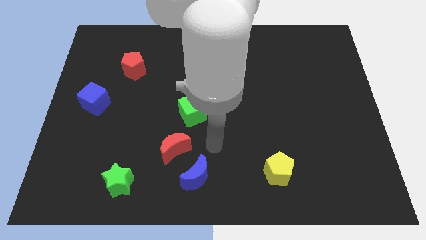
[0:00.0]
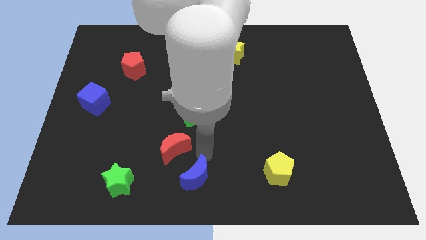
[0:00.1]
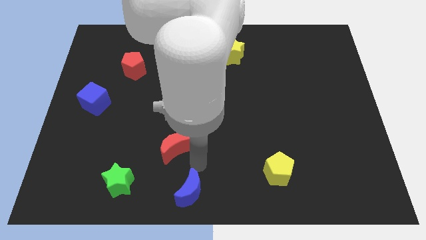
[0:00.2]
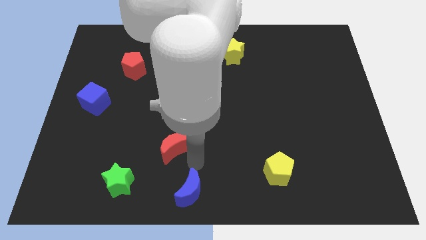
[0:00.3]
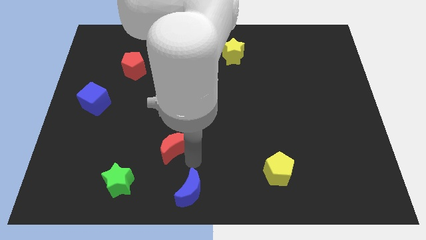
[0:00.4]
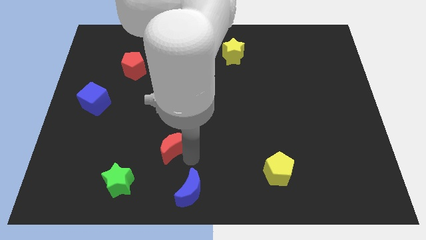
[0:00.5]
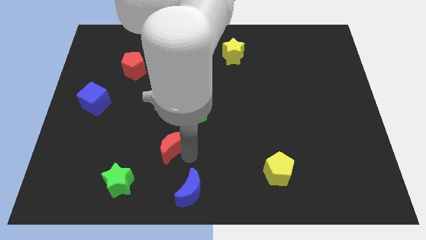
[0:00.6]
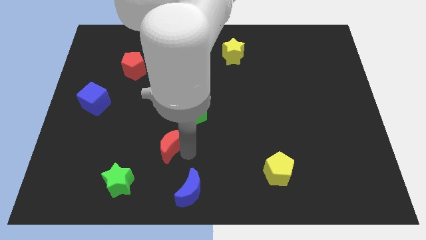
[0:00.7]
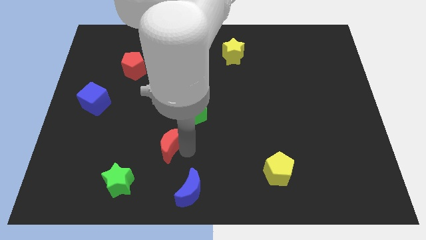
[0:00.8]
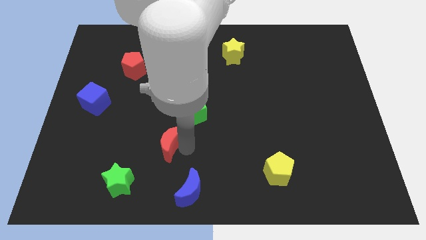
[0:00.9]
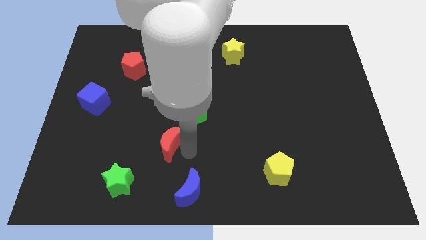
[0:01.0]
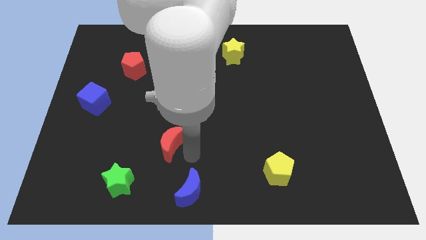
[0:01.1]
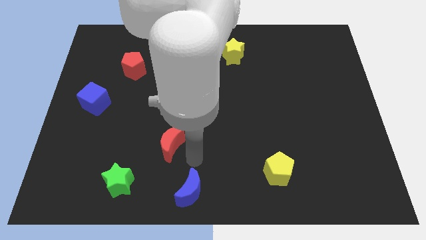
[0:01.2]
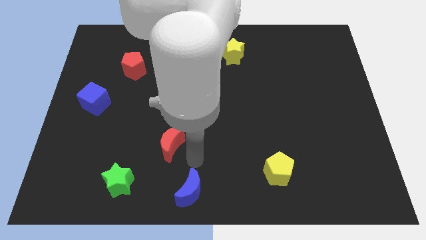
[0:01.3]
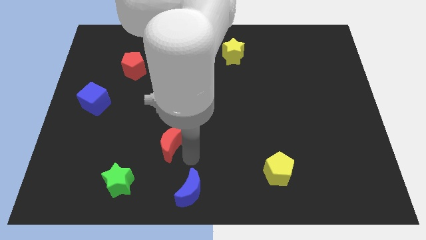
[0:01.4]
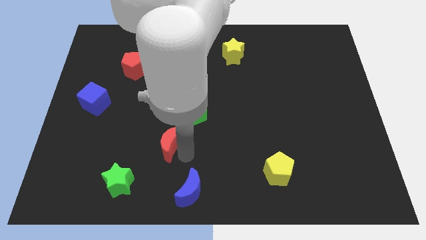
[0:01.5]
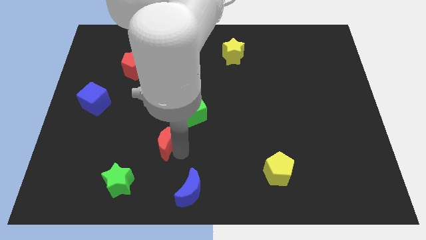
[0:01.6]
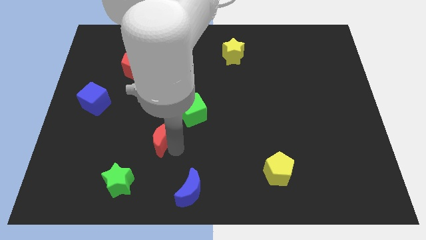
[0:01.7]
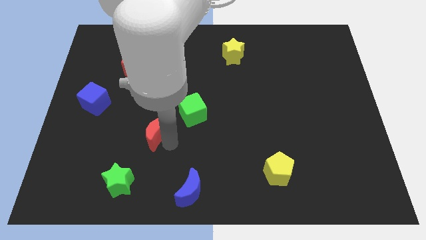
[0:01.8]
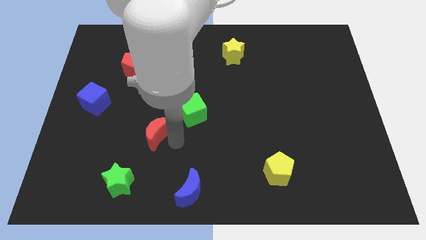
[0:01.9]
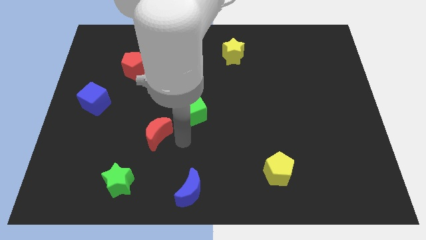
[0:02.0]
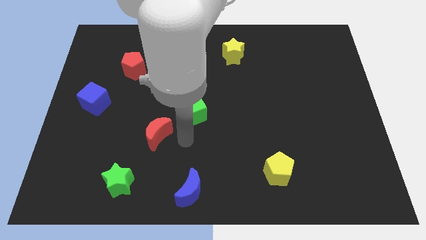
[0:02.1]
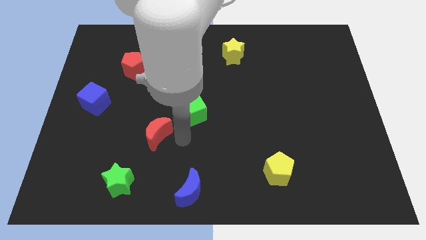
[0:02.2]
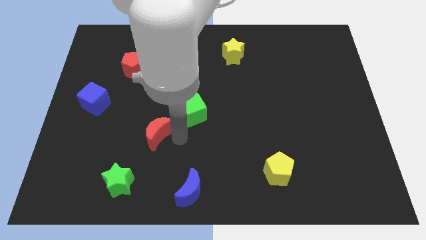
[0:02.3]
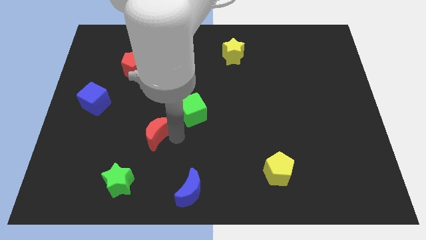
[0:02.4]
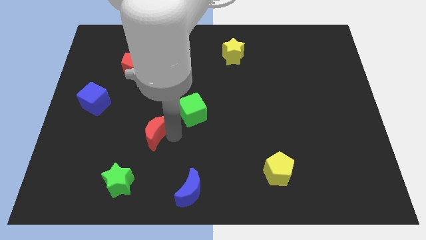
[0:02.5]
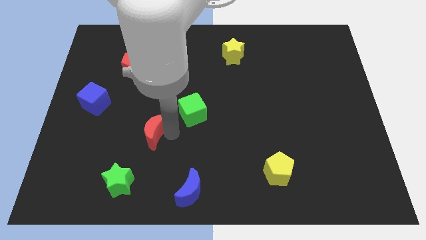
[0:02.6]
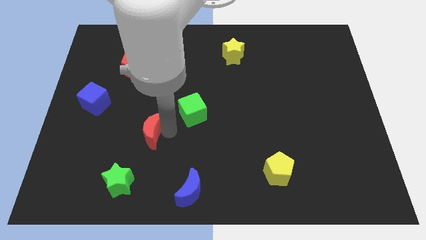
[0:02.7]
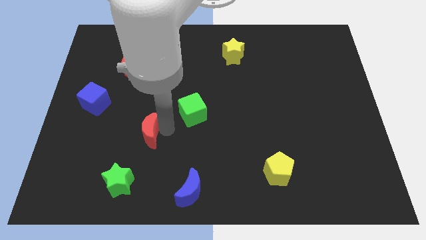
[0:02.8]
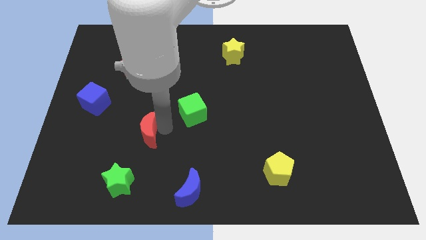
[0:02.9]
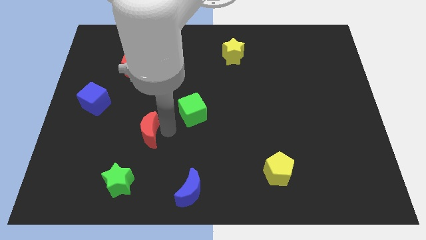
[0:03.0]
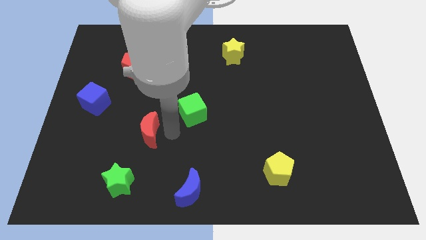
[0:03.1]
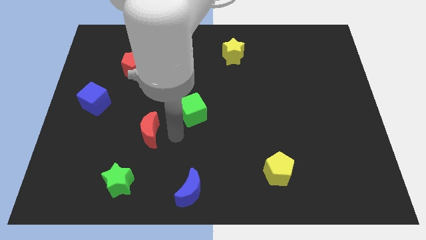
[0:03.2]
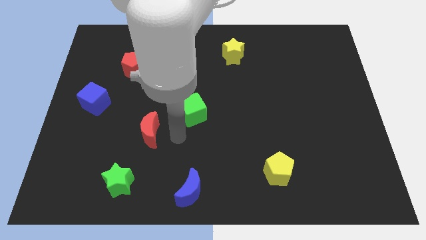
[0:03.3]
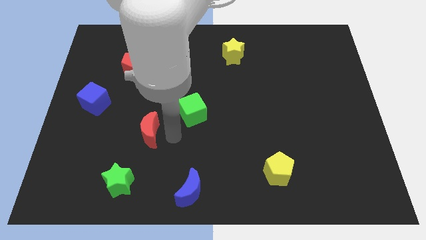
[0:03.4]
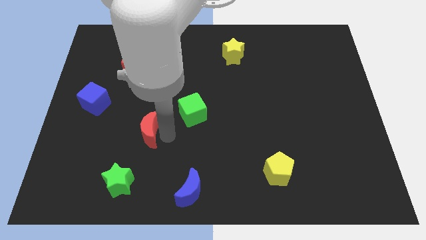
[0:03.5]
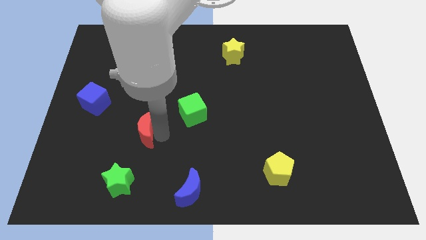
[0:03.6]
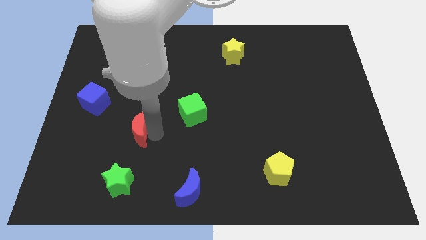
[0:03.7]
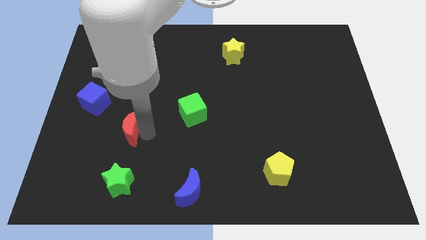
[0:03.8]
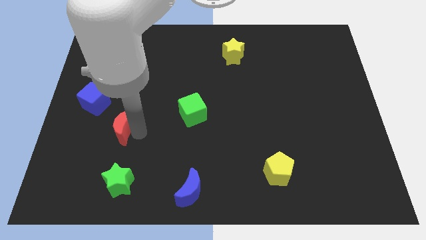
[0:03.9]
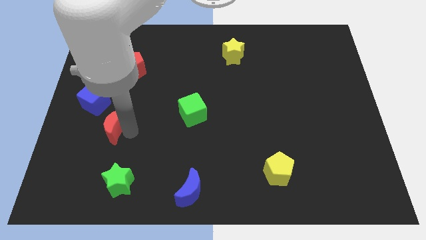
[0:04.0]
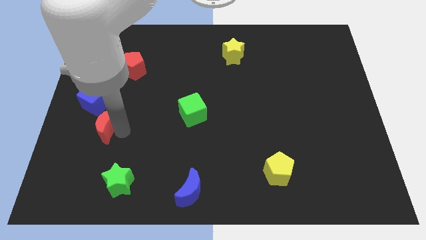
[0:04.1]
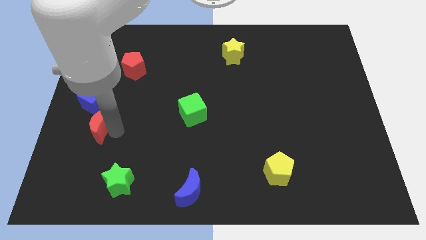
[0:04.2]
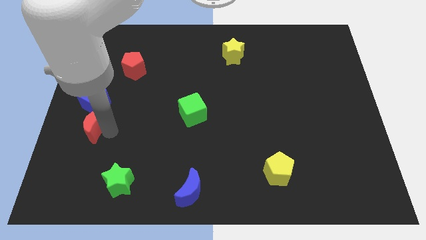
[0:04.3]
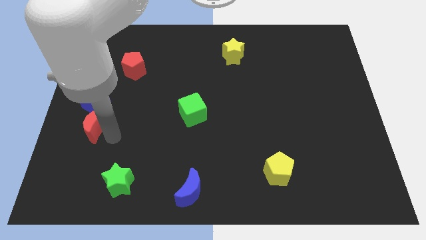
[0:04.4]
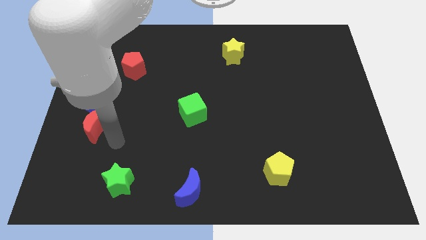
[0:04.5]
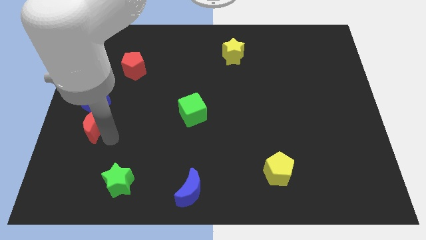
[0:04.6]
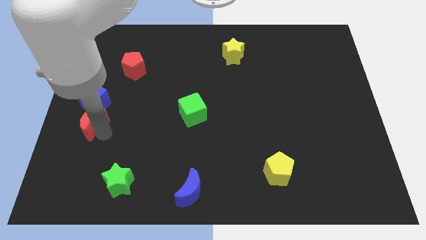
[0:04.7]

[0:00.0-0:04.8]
push the red moon to the left side of the board

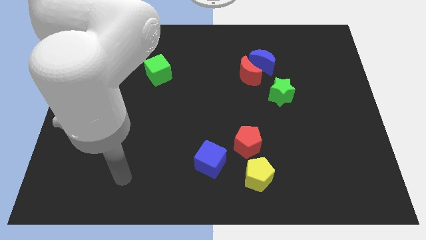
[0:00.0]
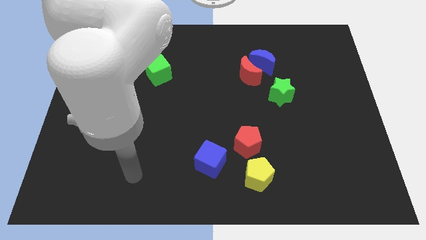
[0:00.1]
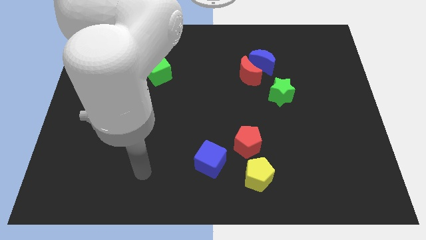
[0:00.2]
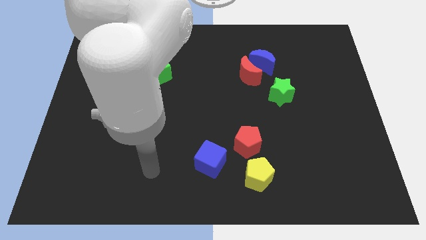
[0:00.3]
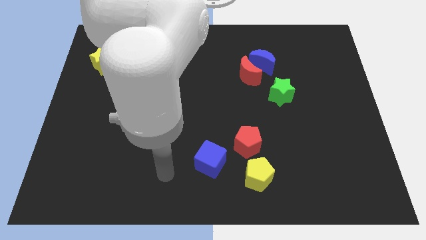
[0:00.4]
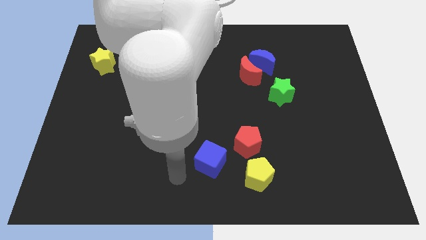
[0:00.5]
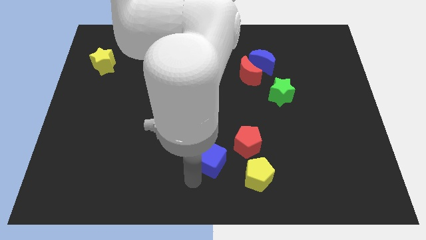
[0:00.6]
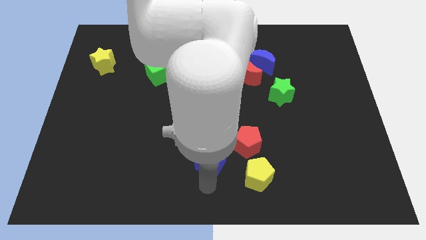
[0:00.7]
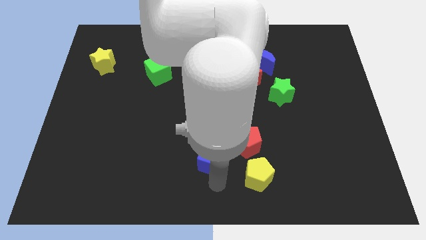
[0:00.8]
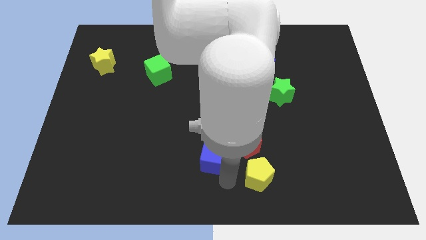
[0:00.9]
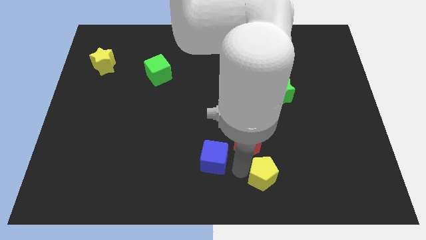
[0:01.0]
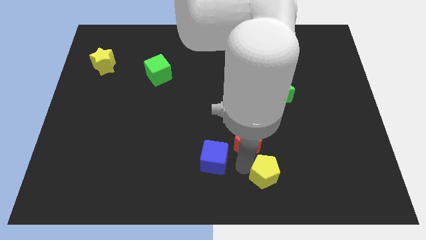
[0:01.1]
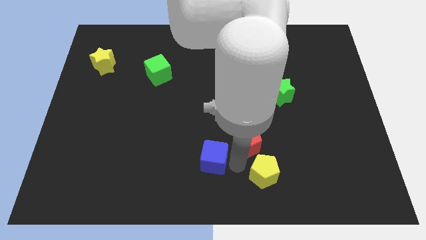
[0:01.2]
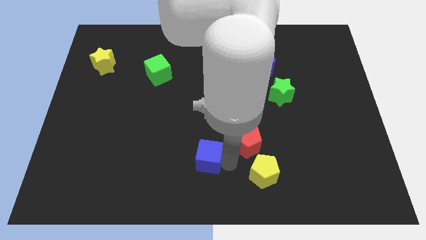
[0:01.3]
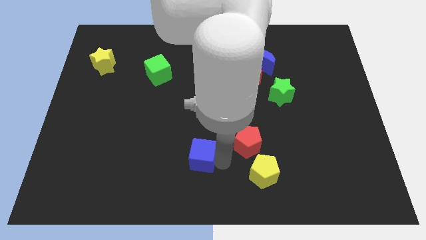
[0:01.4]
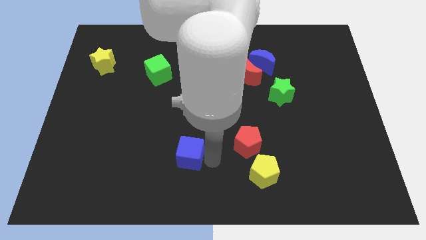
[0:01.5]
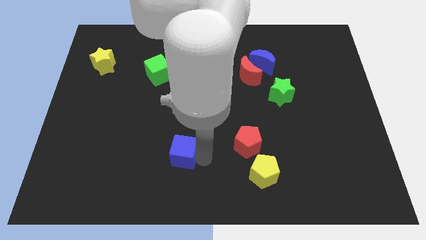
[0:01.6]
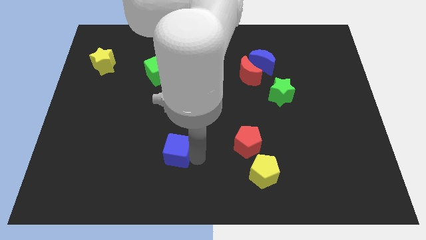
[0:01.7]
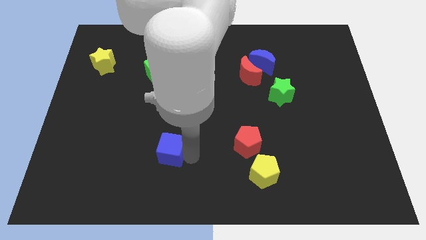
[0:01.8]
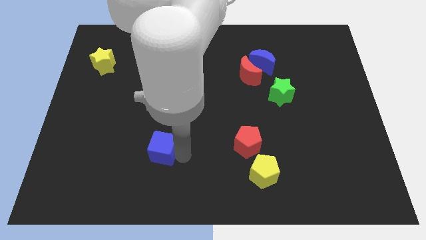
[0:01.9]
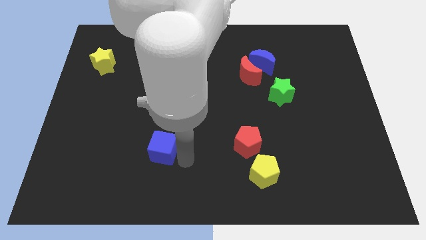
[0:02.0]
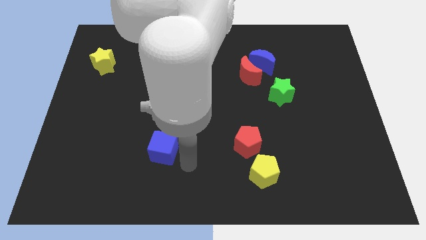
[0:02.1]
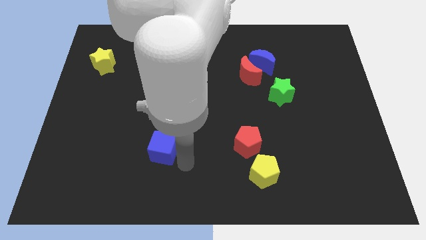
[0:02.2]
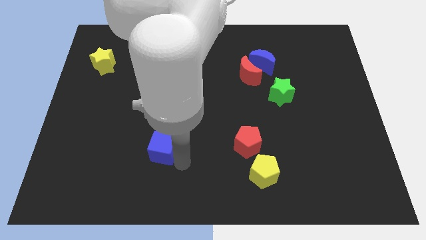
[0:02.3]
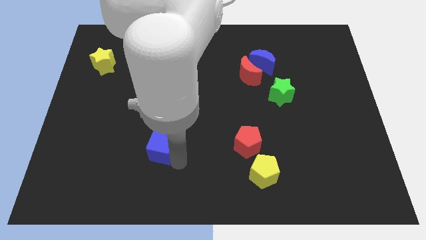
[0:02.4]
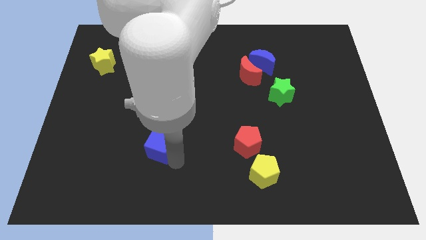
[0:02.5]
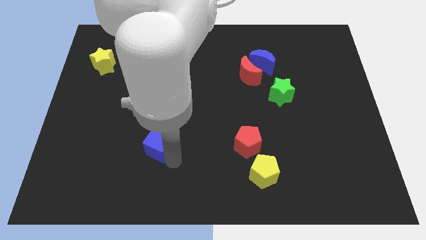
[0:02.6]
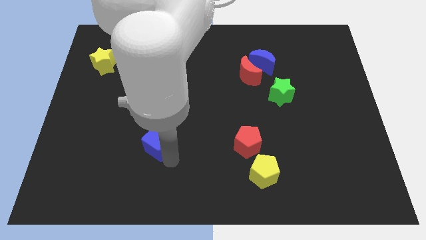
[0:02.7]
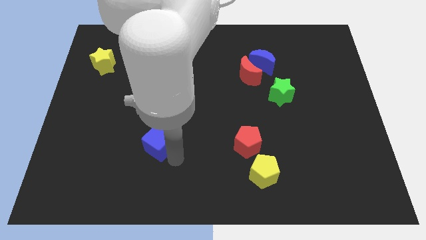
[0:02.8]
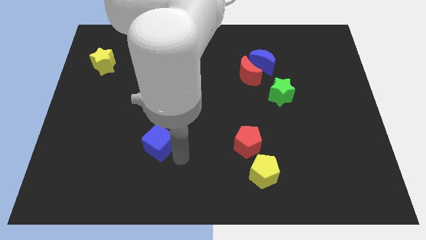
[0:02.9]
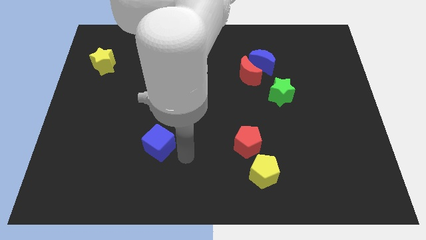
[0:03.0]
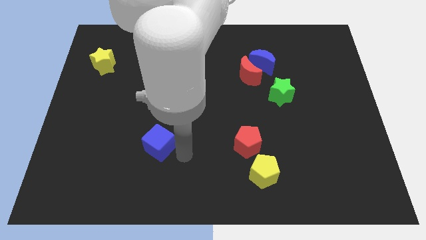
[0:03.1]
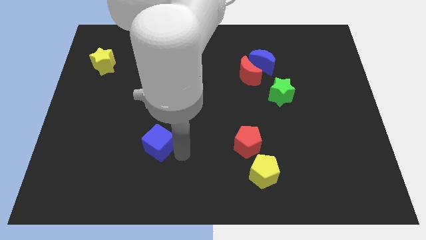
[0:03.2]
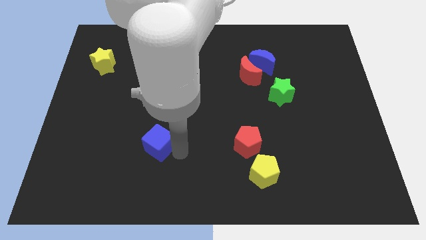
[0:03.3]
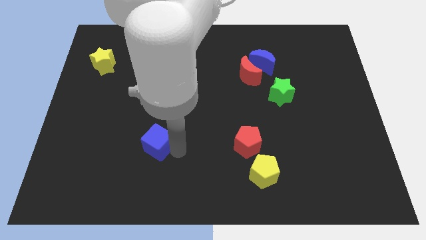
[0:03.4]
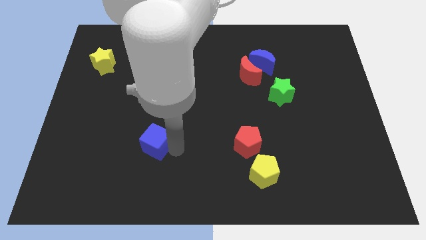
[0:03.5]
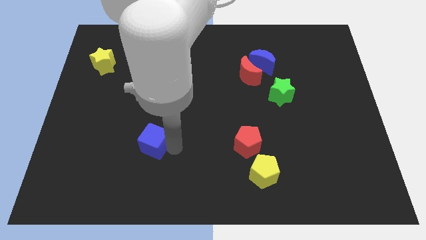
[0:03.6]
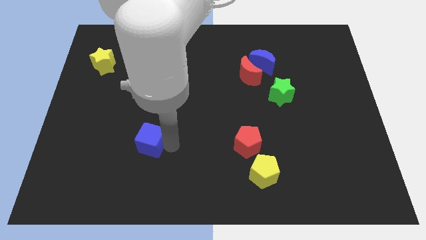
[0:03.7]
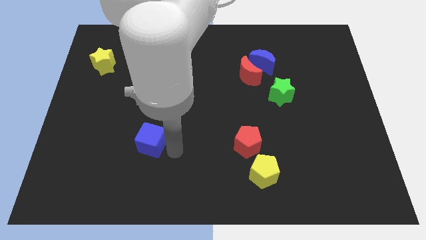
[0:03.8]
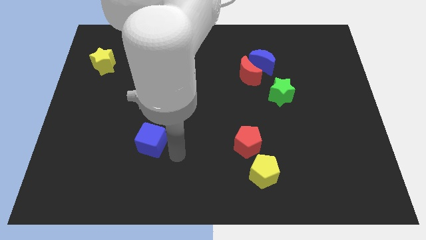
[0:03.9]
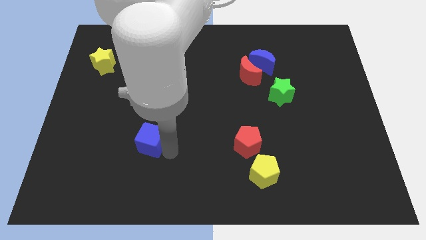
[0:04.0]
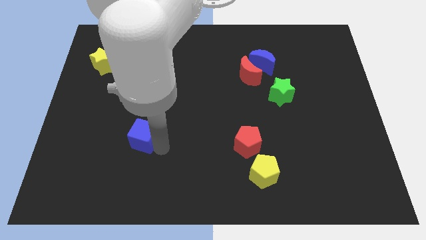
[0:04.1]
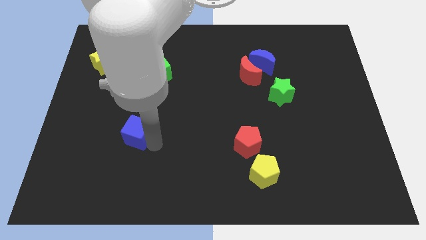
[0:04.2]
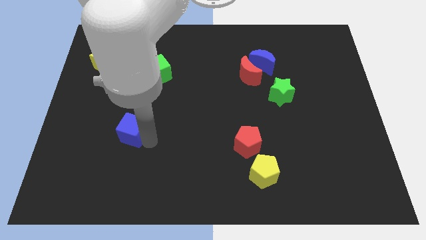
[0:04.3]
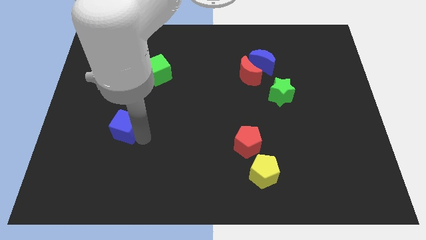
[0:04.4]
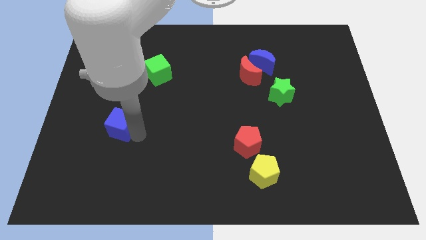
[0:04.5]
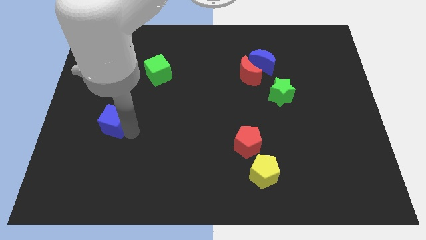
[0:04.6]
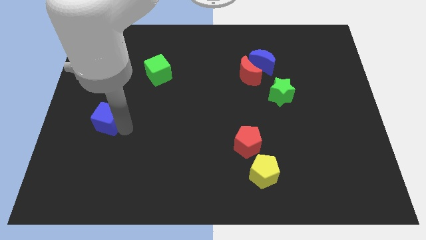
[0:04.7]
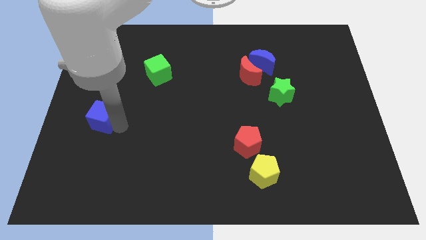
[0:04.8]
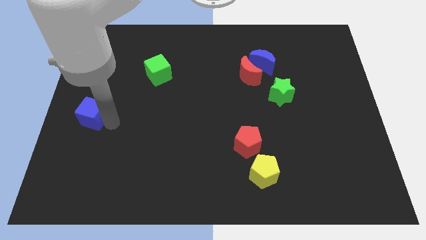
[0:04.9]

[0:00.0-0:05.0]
slide the blue cube to the left side of the board
